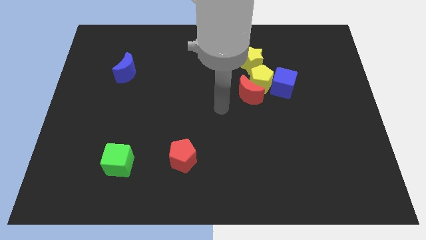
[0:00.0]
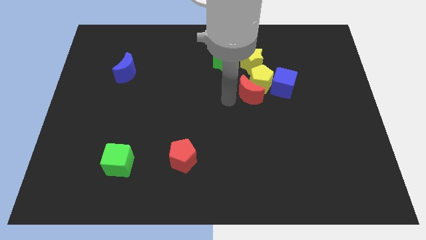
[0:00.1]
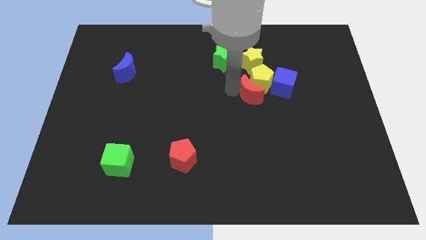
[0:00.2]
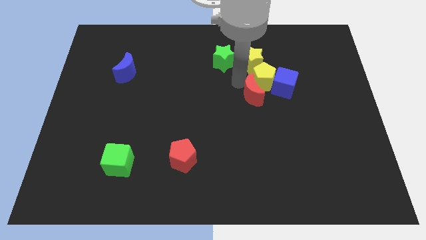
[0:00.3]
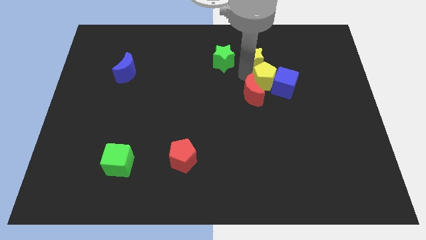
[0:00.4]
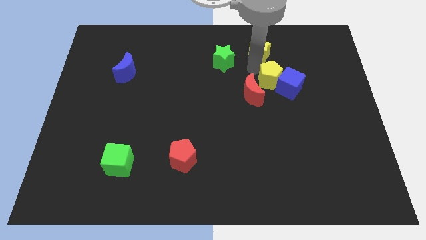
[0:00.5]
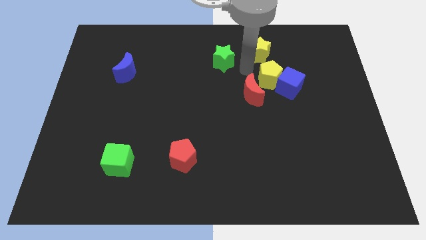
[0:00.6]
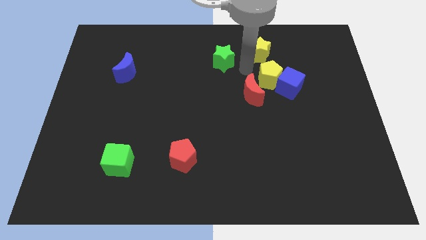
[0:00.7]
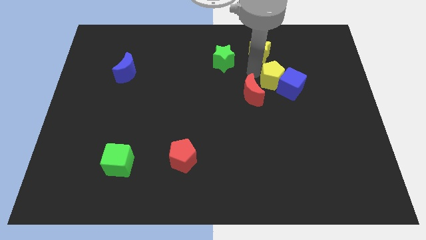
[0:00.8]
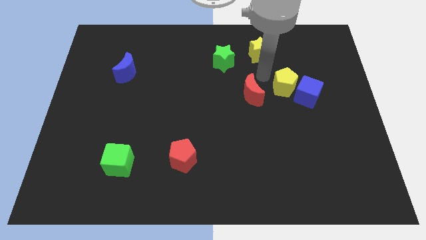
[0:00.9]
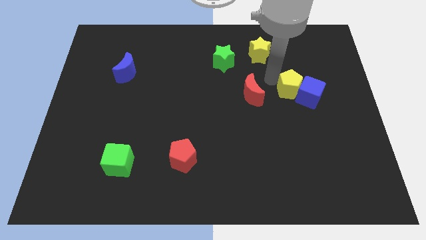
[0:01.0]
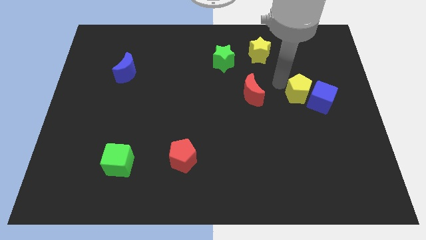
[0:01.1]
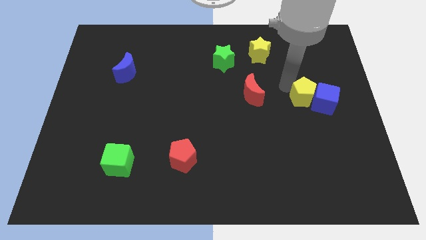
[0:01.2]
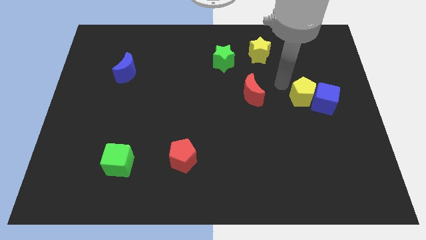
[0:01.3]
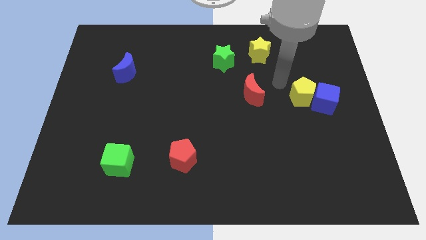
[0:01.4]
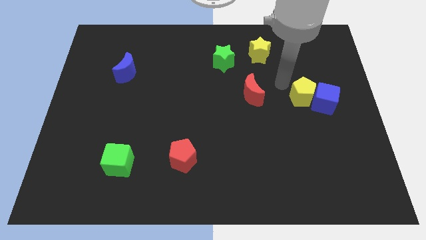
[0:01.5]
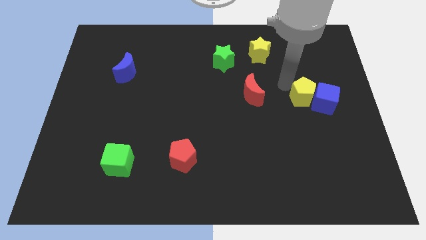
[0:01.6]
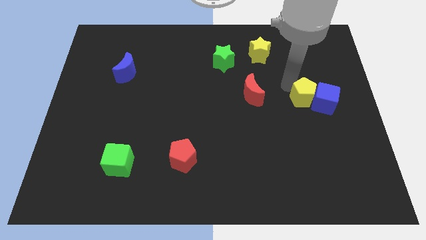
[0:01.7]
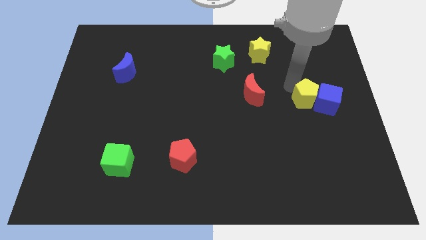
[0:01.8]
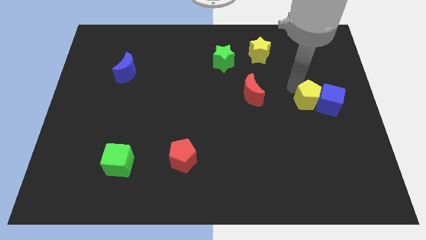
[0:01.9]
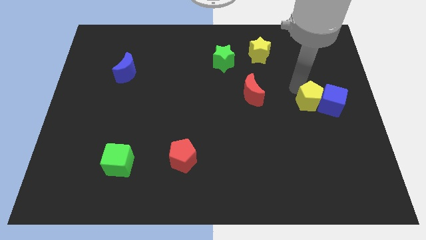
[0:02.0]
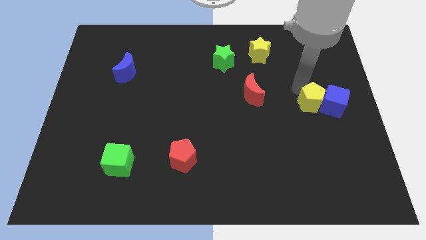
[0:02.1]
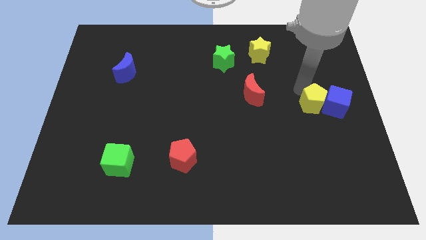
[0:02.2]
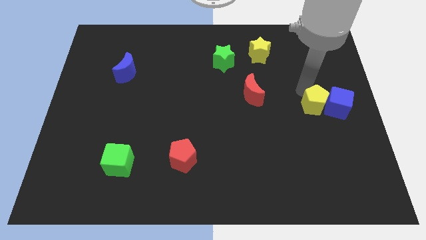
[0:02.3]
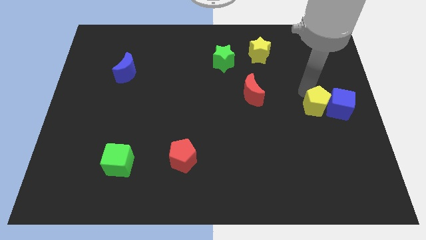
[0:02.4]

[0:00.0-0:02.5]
pull the yellow pentagon apart from the group

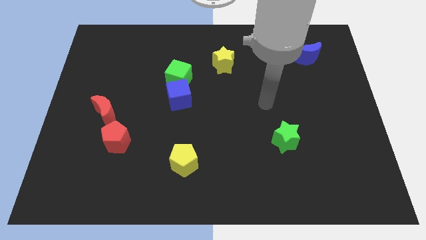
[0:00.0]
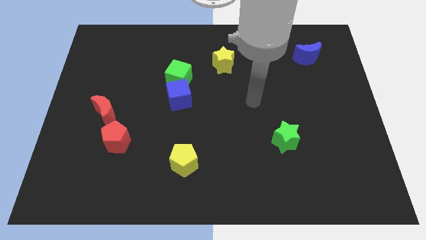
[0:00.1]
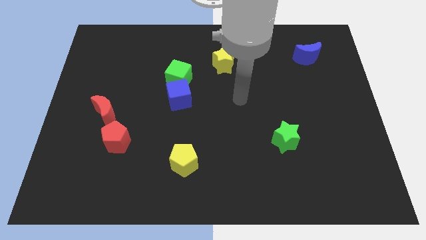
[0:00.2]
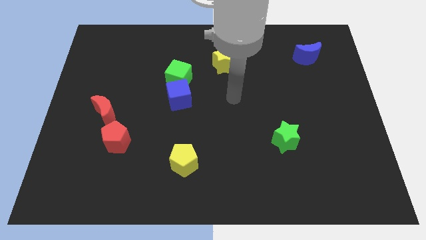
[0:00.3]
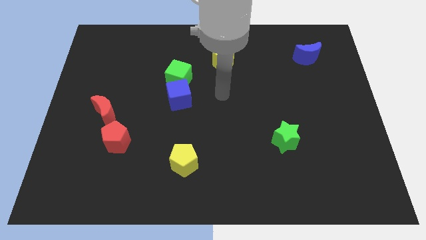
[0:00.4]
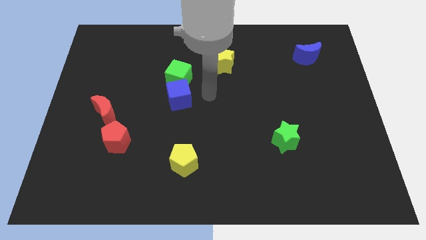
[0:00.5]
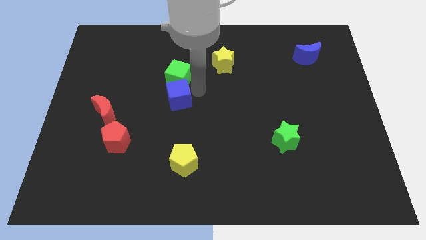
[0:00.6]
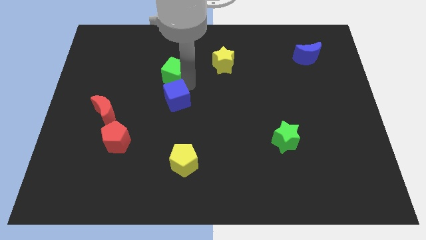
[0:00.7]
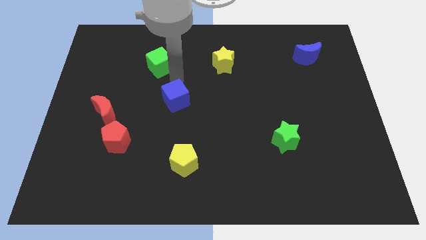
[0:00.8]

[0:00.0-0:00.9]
move the blue cube away from the green cube

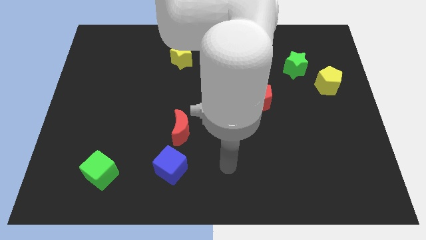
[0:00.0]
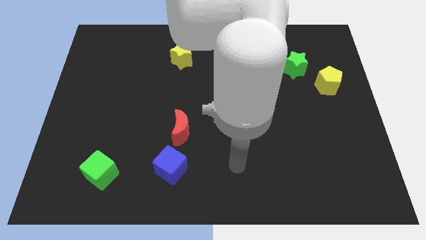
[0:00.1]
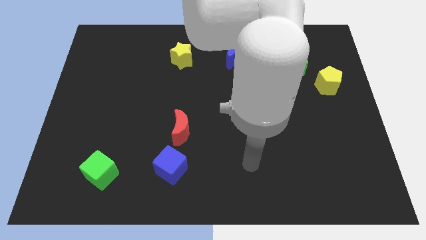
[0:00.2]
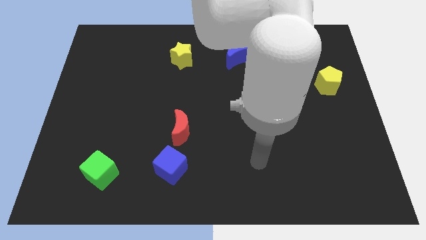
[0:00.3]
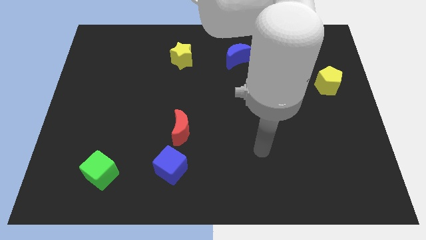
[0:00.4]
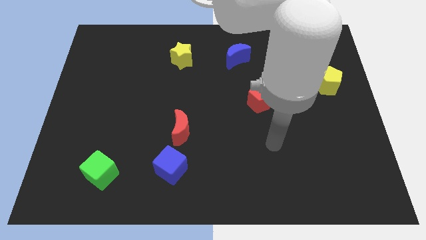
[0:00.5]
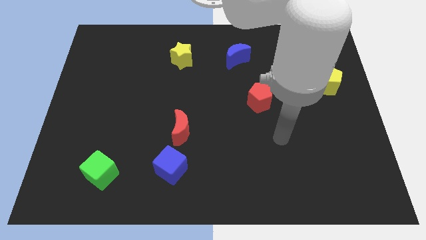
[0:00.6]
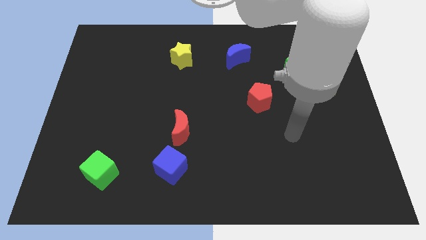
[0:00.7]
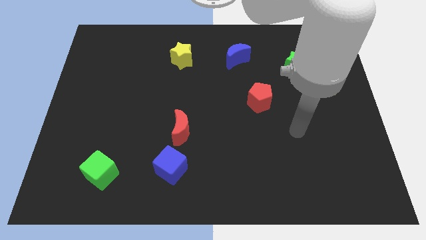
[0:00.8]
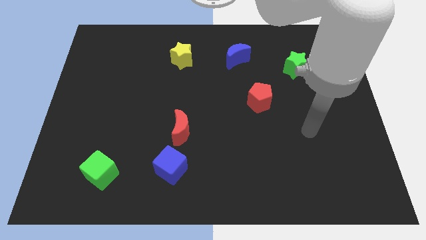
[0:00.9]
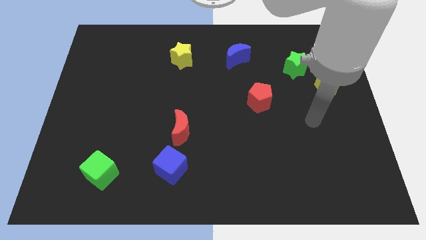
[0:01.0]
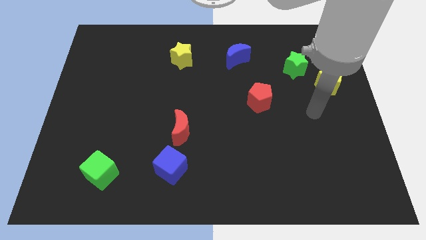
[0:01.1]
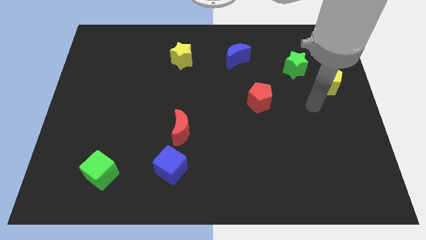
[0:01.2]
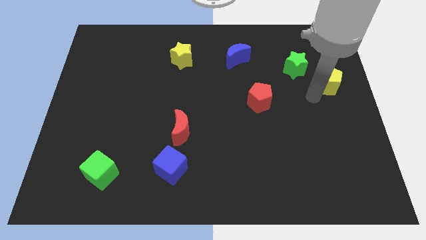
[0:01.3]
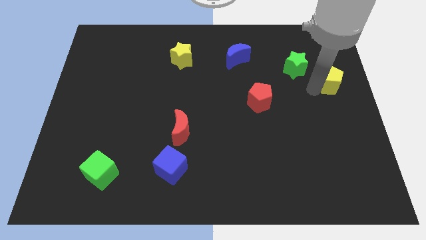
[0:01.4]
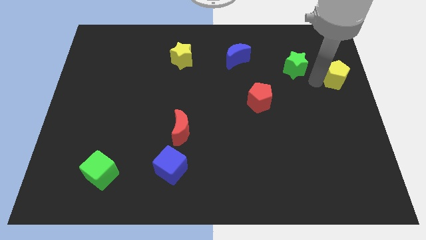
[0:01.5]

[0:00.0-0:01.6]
separate the green star from the yellow pentagon

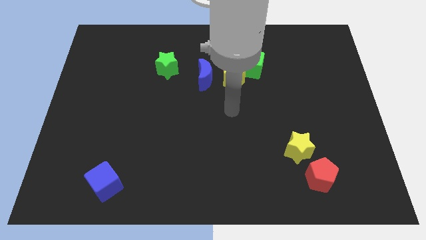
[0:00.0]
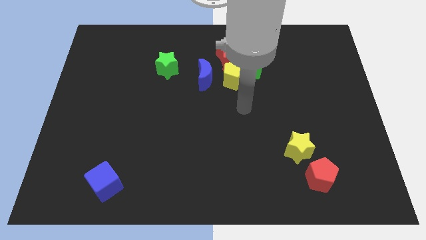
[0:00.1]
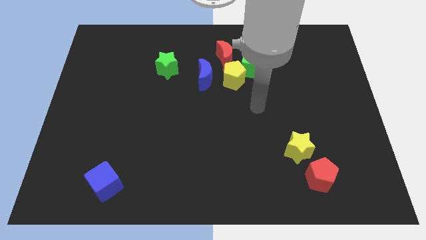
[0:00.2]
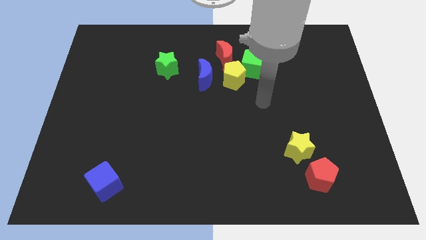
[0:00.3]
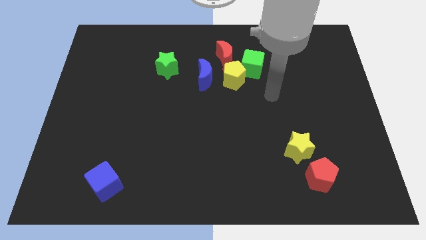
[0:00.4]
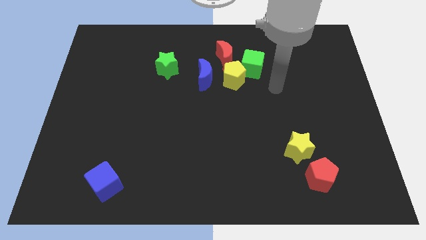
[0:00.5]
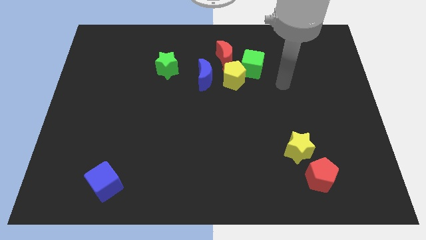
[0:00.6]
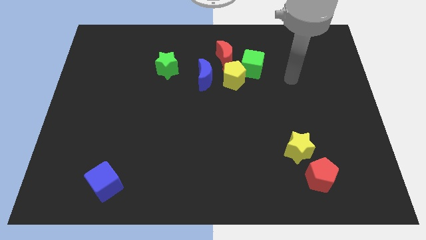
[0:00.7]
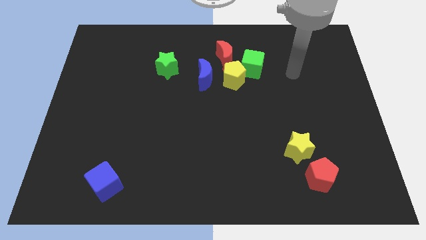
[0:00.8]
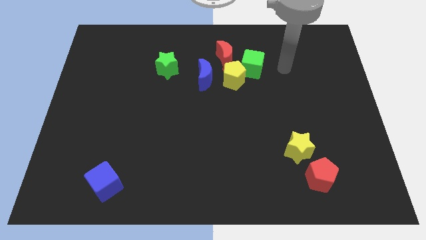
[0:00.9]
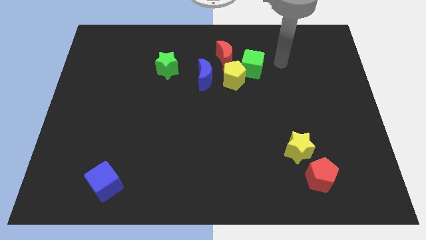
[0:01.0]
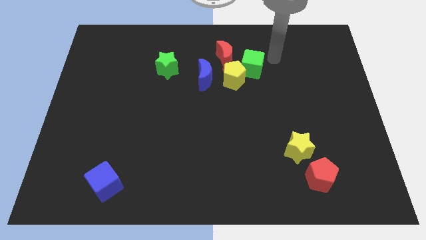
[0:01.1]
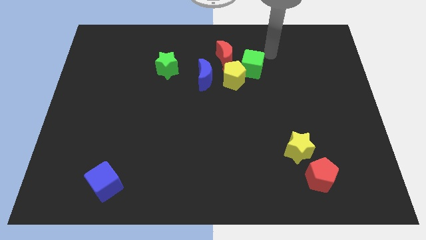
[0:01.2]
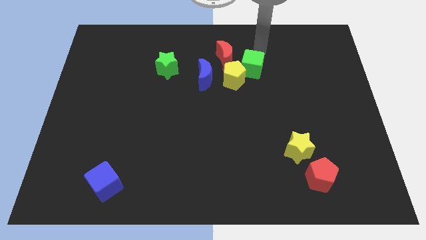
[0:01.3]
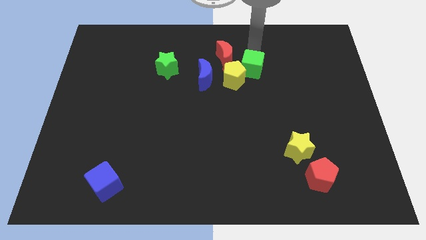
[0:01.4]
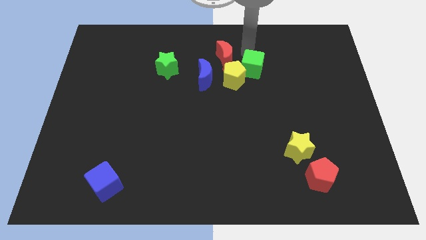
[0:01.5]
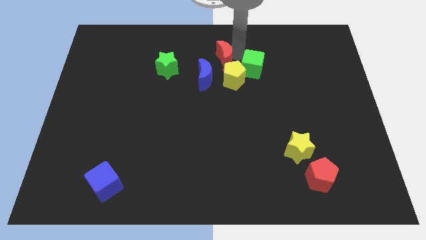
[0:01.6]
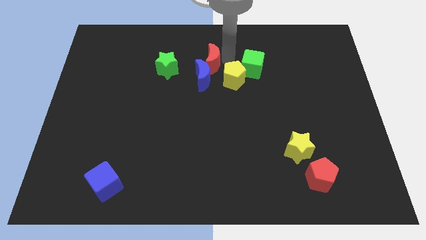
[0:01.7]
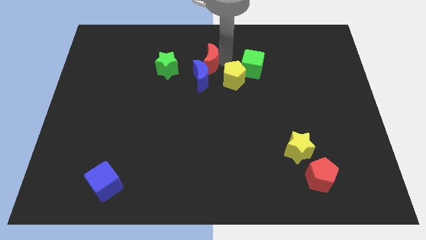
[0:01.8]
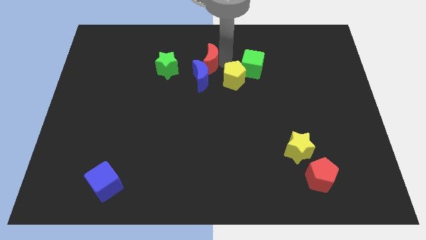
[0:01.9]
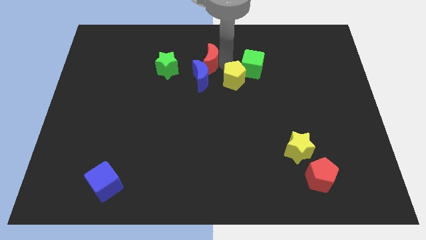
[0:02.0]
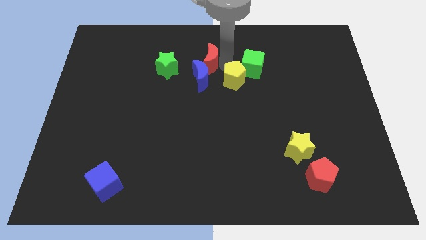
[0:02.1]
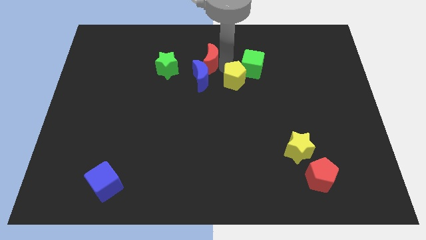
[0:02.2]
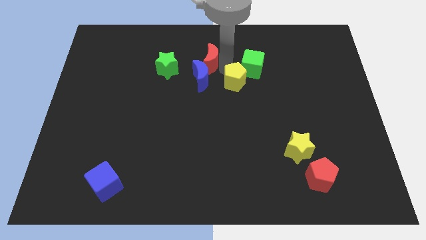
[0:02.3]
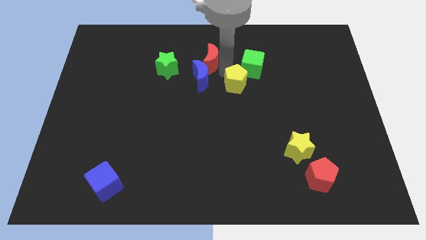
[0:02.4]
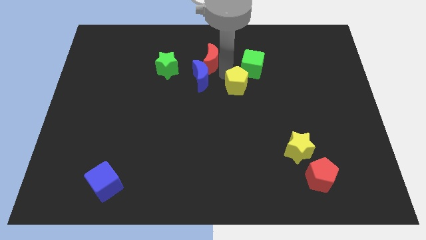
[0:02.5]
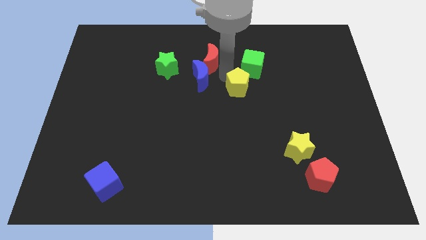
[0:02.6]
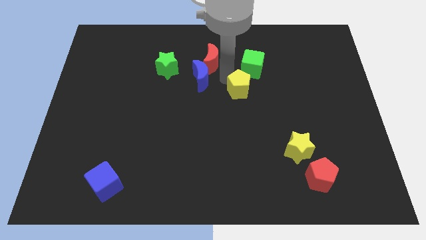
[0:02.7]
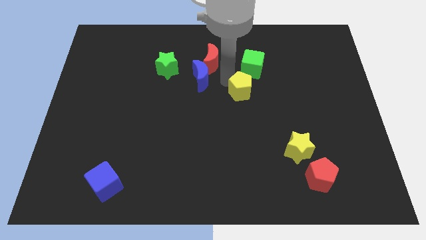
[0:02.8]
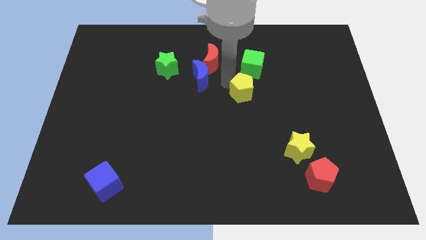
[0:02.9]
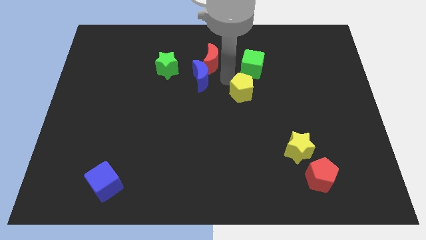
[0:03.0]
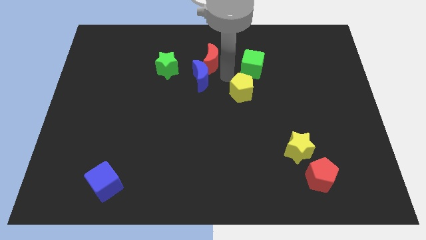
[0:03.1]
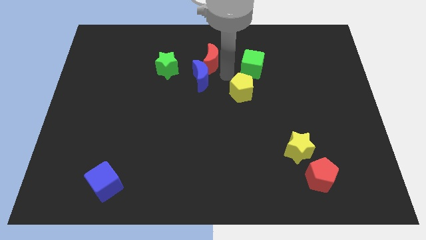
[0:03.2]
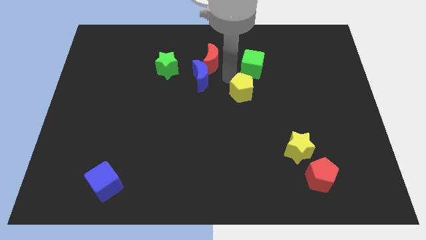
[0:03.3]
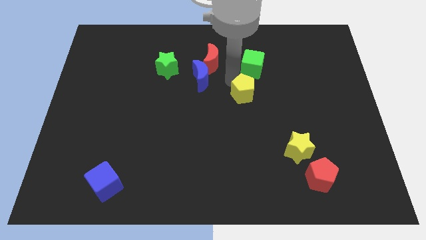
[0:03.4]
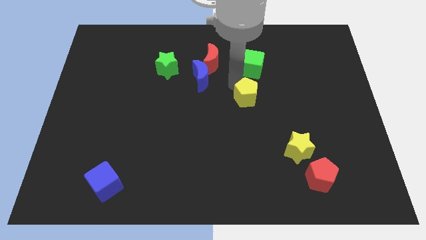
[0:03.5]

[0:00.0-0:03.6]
move the yellow pentagon away from the green cube, blue moon, and red moon

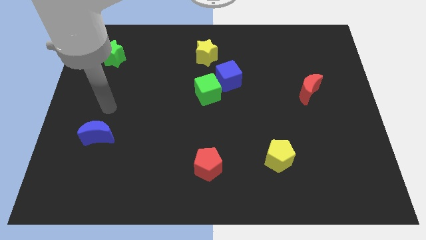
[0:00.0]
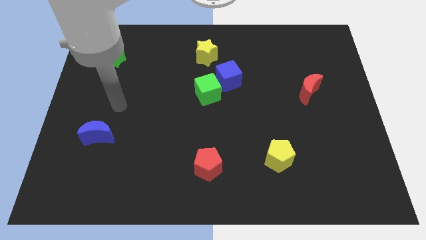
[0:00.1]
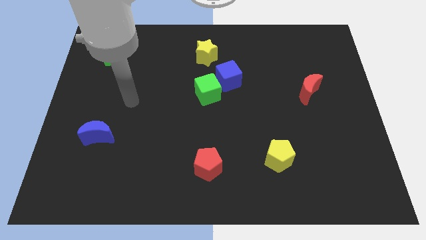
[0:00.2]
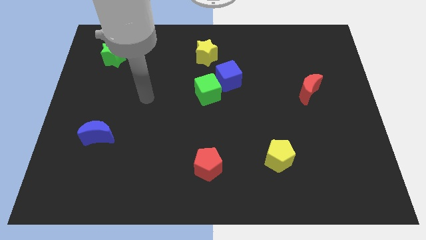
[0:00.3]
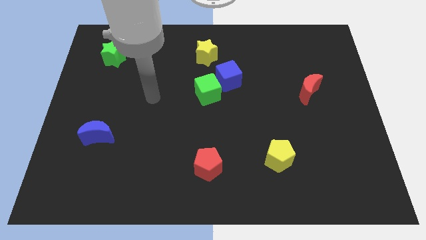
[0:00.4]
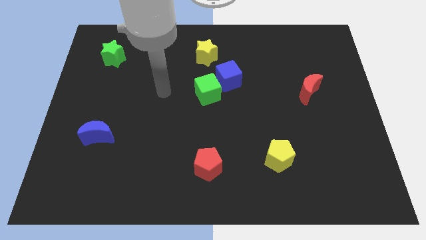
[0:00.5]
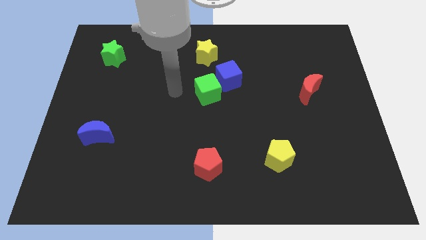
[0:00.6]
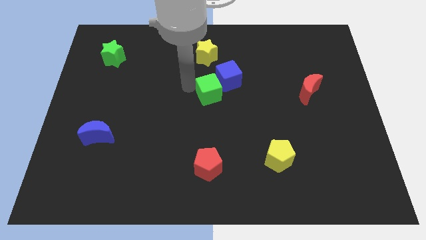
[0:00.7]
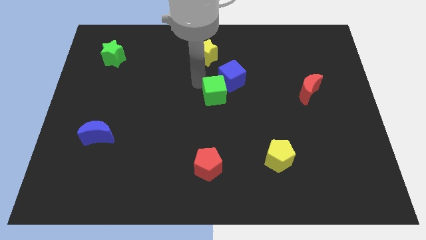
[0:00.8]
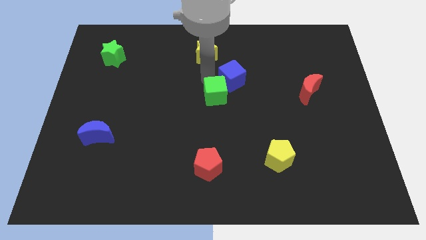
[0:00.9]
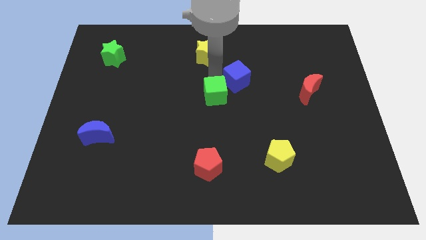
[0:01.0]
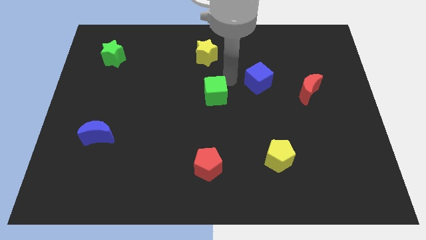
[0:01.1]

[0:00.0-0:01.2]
pull the green cube apart from the blue cube
